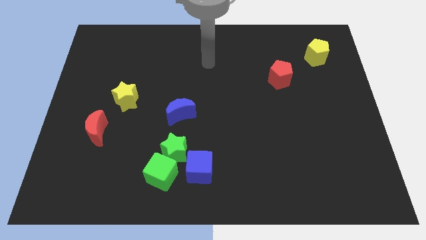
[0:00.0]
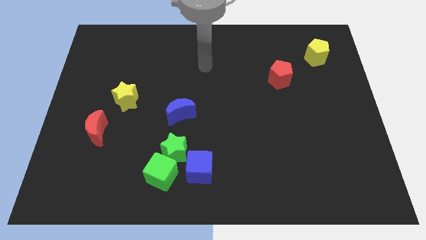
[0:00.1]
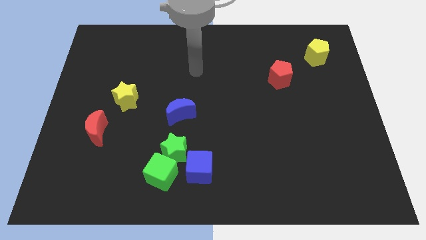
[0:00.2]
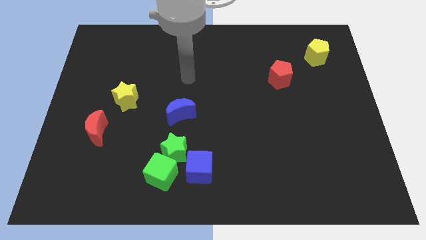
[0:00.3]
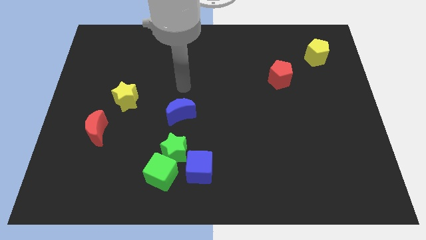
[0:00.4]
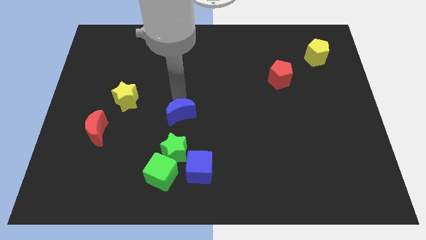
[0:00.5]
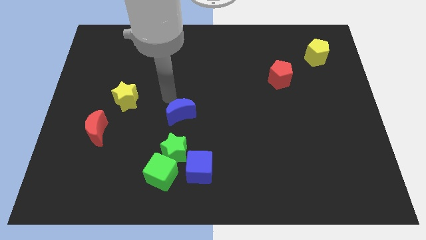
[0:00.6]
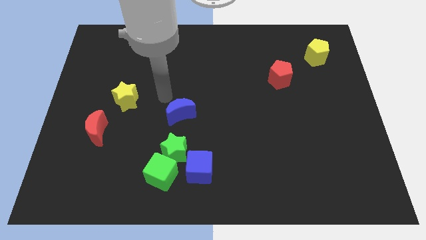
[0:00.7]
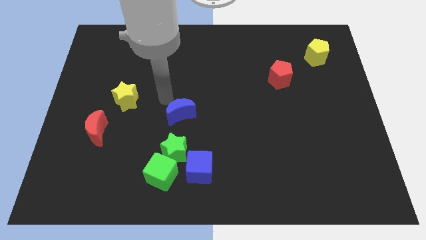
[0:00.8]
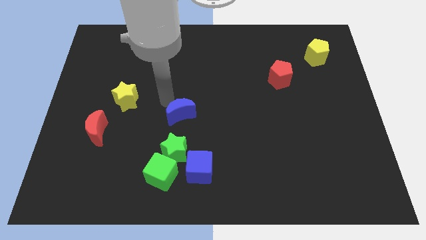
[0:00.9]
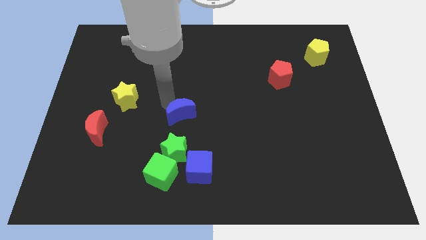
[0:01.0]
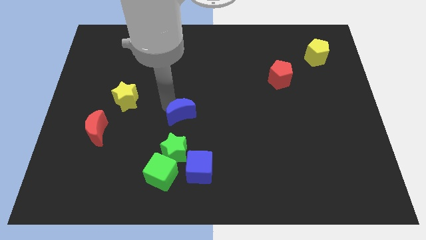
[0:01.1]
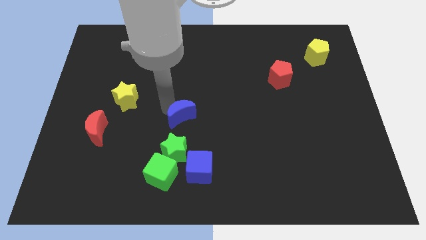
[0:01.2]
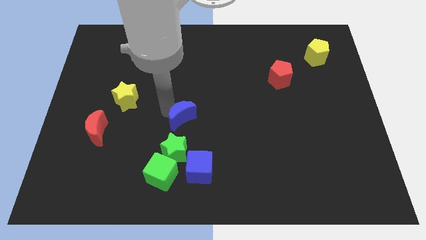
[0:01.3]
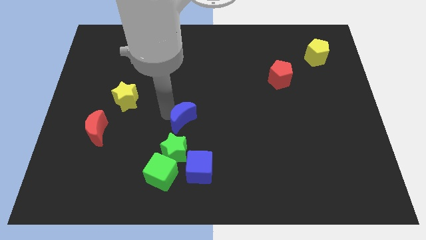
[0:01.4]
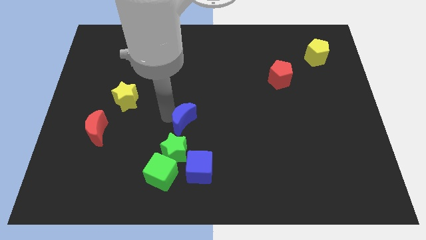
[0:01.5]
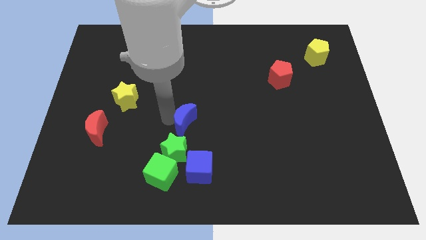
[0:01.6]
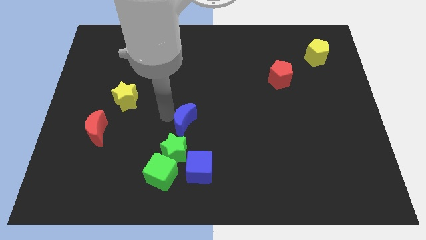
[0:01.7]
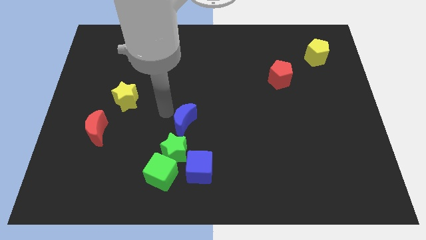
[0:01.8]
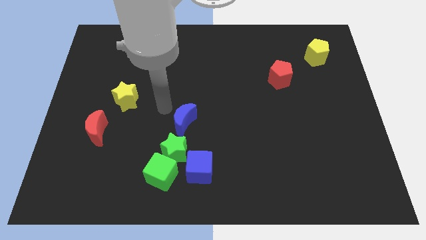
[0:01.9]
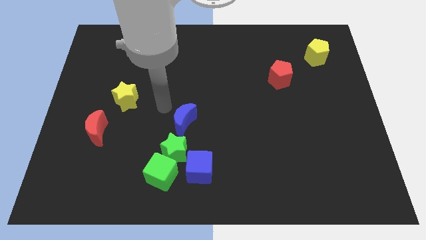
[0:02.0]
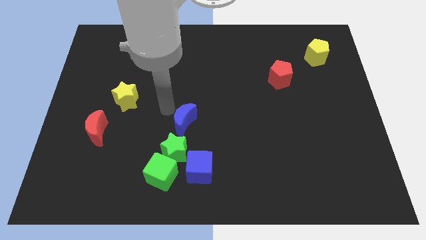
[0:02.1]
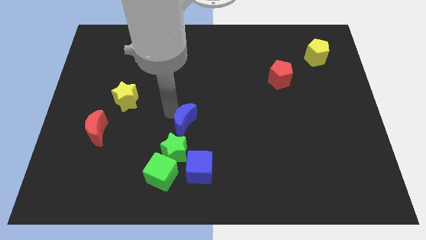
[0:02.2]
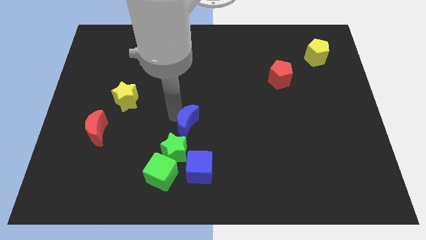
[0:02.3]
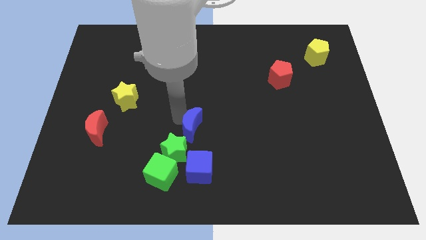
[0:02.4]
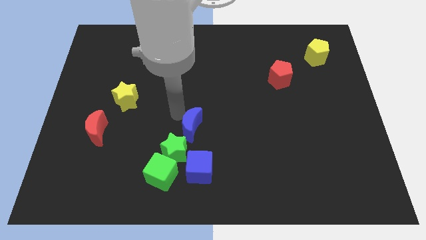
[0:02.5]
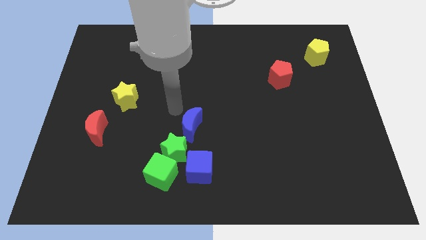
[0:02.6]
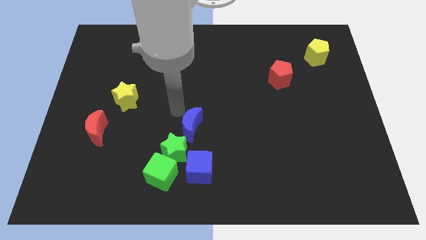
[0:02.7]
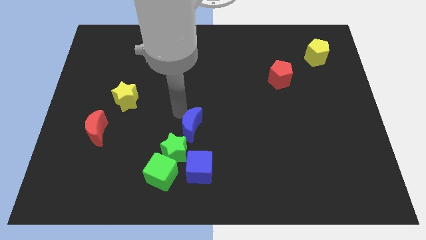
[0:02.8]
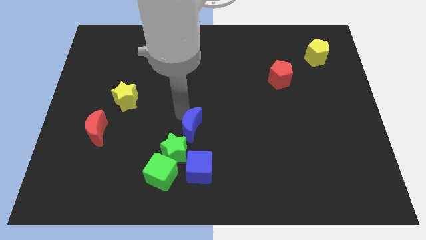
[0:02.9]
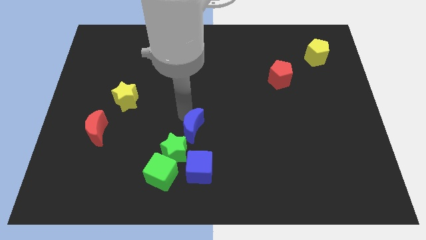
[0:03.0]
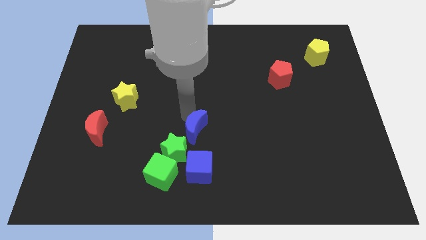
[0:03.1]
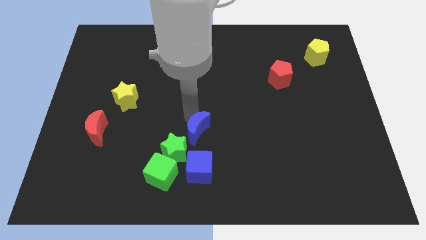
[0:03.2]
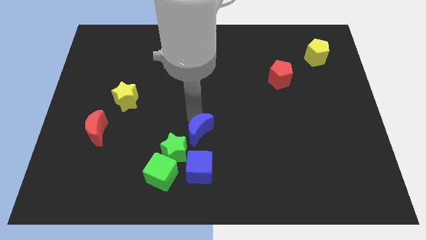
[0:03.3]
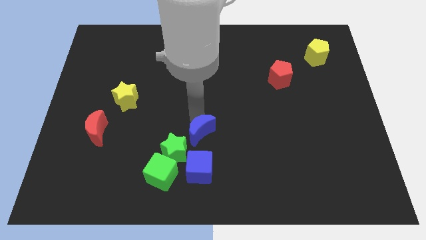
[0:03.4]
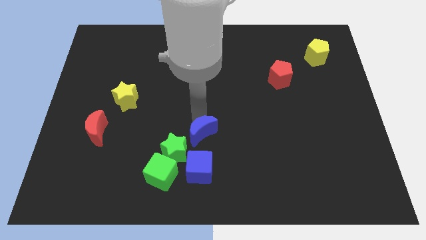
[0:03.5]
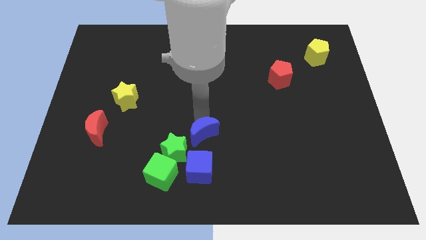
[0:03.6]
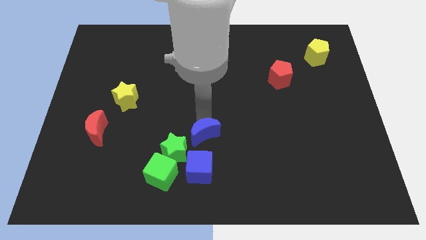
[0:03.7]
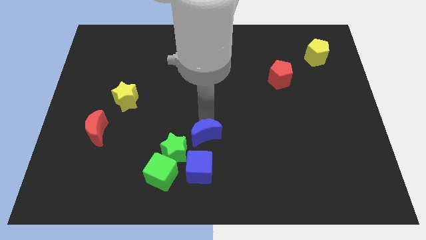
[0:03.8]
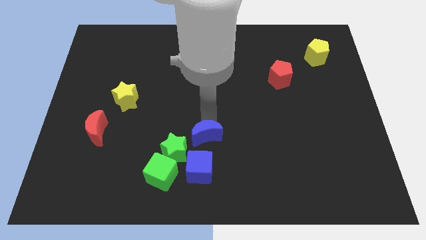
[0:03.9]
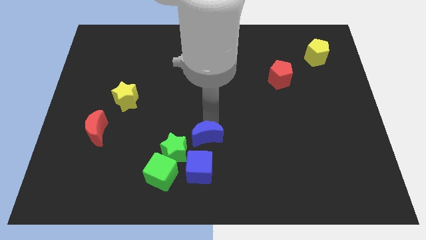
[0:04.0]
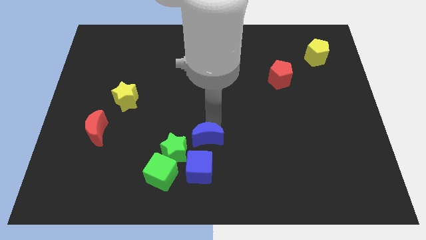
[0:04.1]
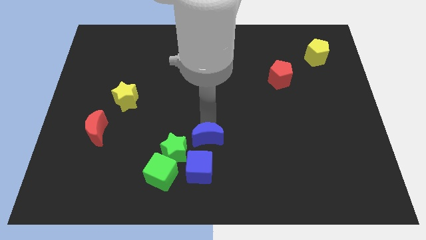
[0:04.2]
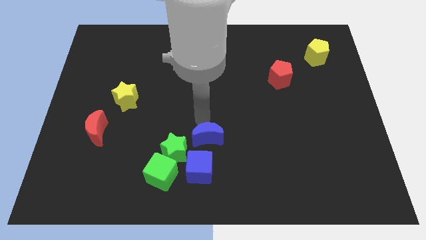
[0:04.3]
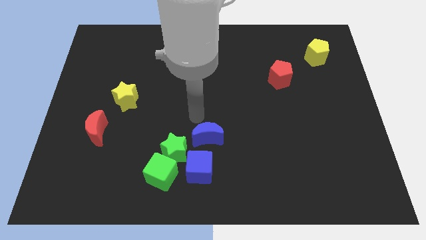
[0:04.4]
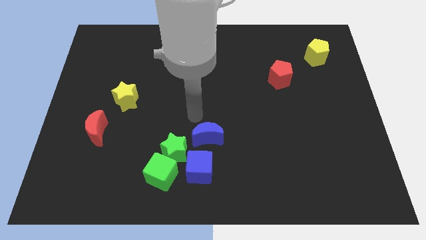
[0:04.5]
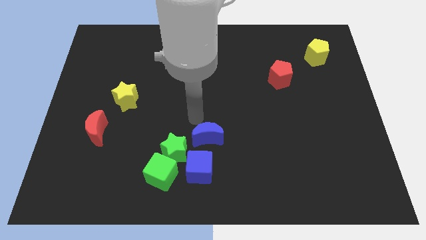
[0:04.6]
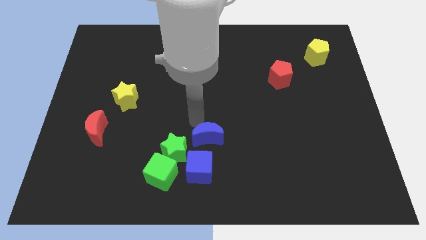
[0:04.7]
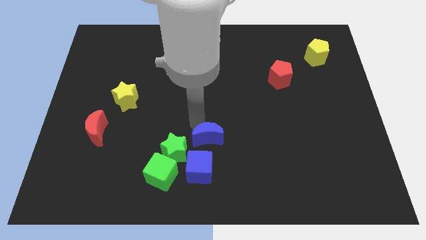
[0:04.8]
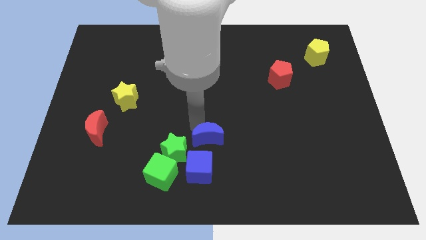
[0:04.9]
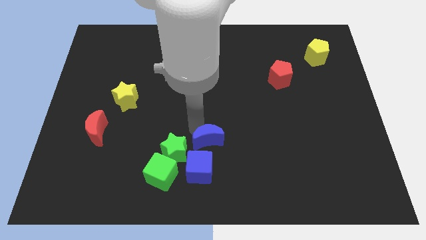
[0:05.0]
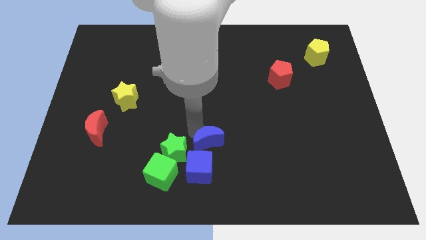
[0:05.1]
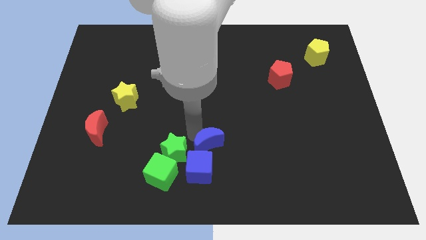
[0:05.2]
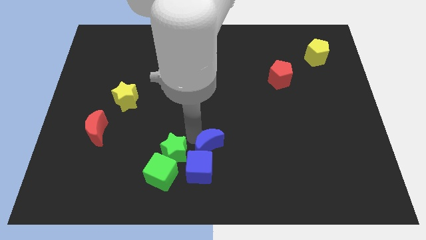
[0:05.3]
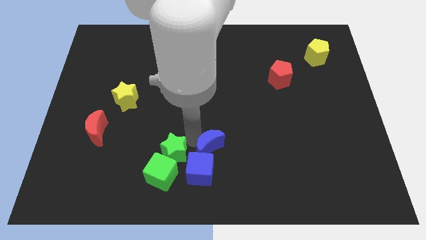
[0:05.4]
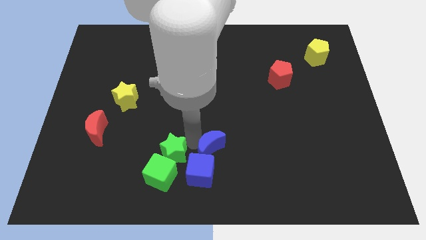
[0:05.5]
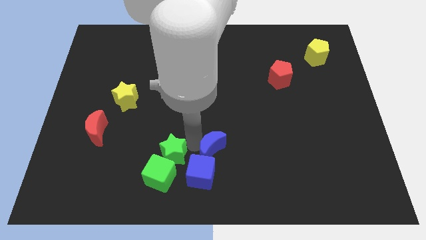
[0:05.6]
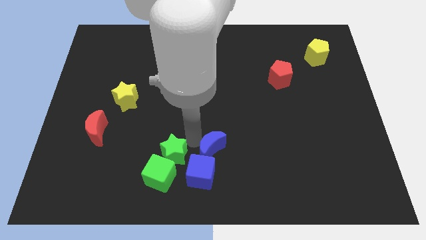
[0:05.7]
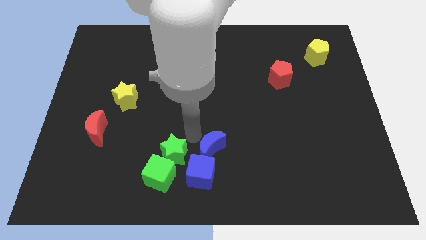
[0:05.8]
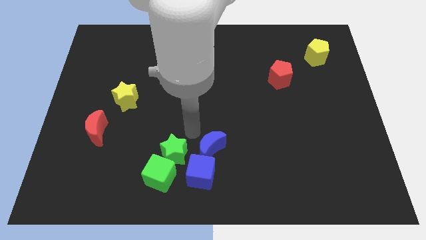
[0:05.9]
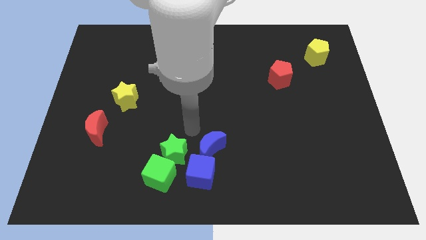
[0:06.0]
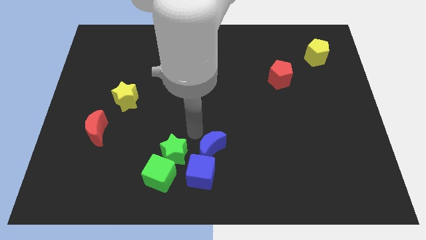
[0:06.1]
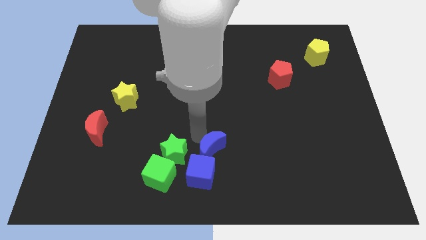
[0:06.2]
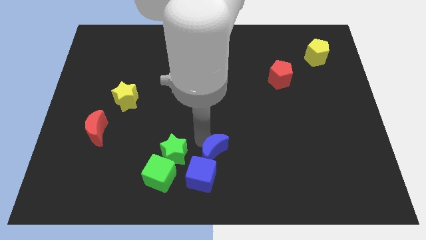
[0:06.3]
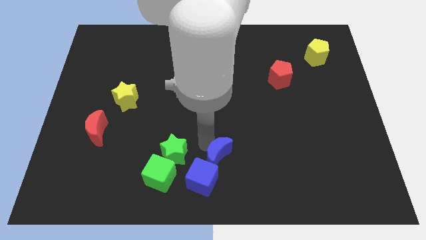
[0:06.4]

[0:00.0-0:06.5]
put the blue moon to the bottom
